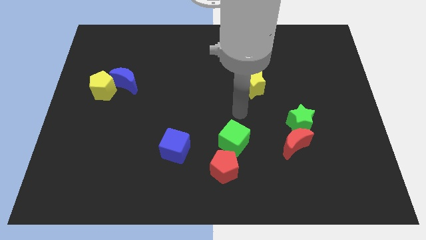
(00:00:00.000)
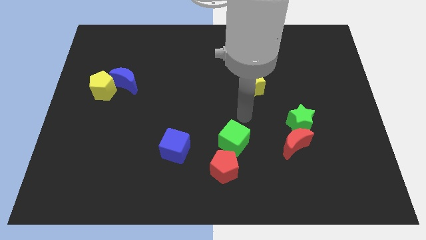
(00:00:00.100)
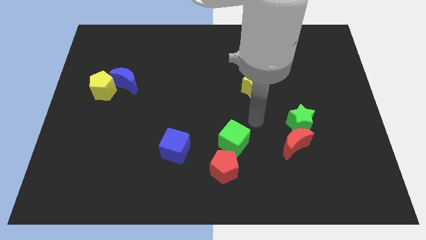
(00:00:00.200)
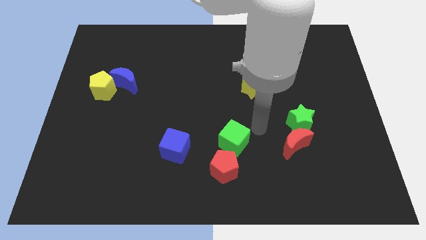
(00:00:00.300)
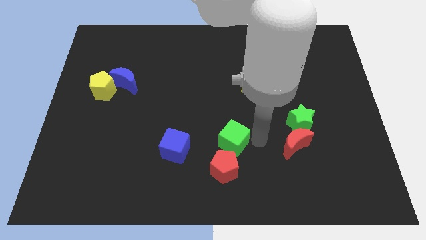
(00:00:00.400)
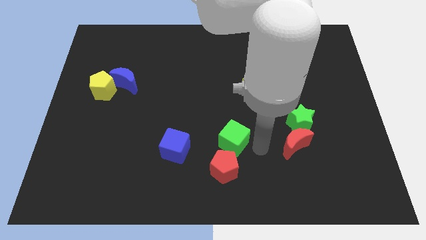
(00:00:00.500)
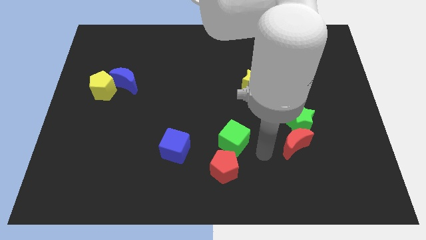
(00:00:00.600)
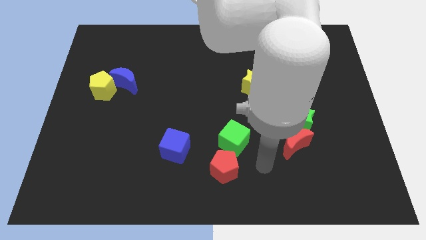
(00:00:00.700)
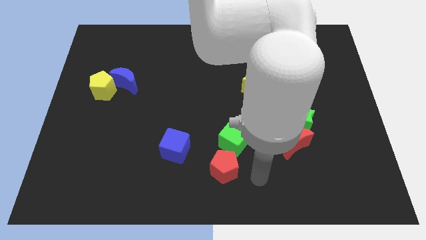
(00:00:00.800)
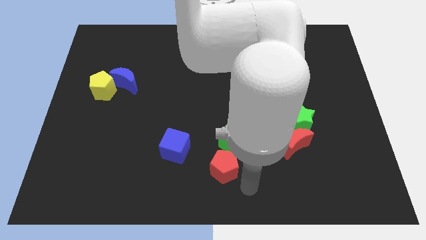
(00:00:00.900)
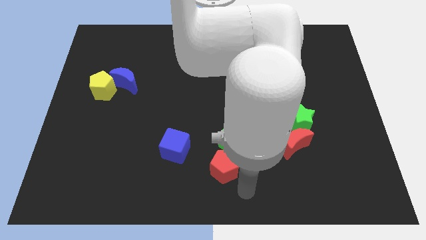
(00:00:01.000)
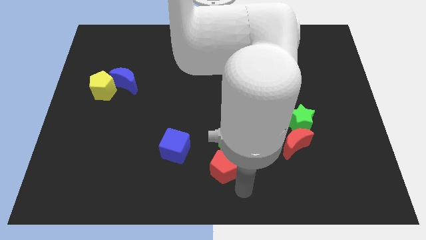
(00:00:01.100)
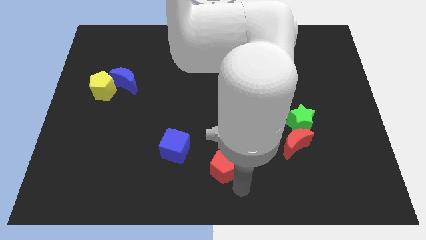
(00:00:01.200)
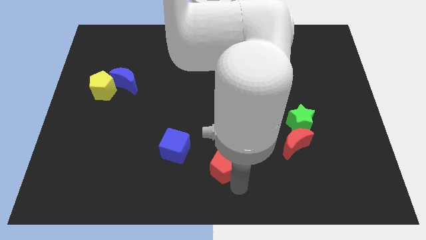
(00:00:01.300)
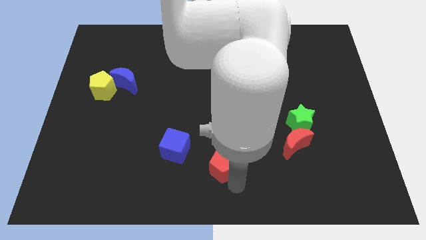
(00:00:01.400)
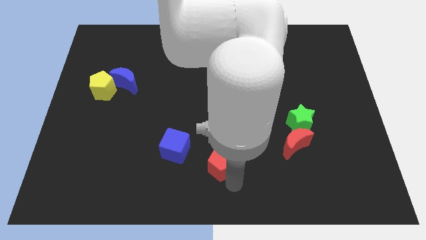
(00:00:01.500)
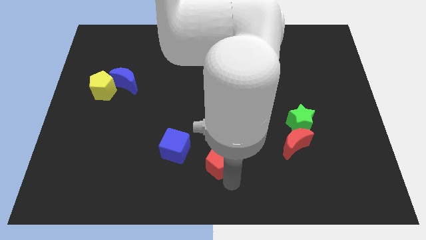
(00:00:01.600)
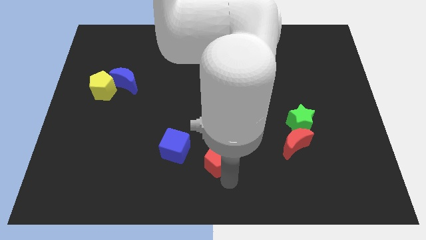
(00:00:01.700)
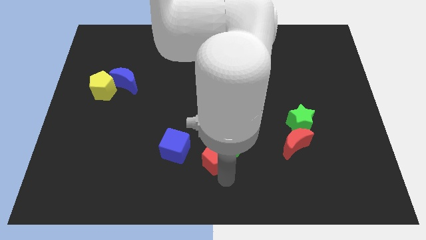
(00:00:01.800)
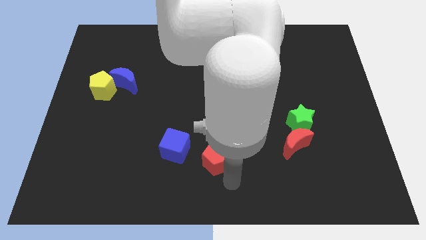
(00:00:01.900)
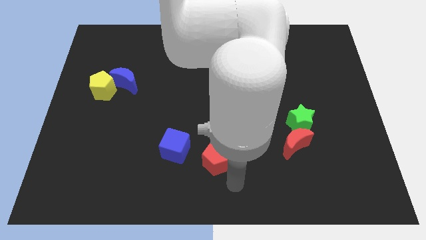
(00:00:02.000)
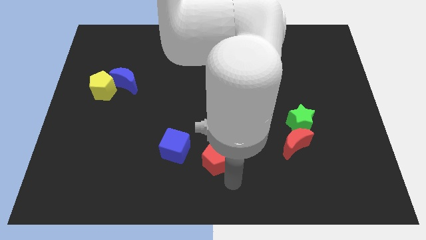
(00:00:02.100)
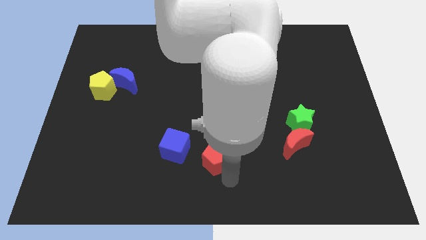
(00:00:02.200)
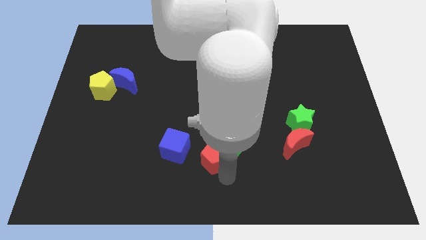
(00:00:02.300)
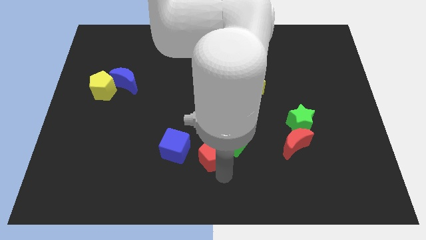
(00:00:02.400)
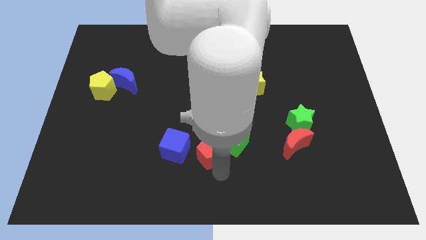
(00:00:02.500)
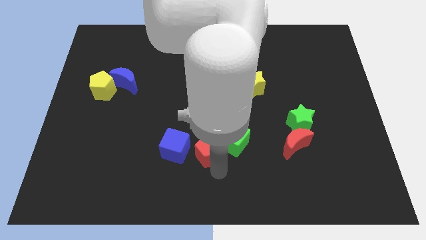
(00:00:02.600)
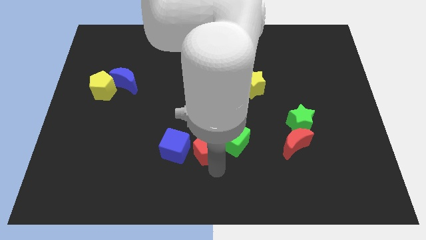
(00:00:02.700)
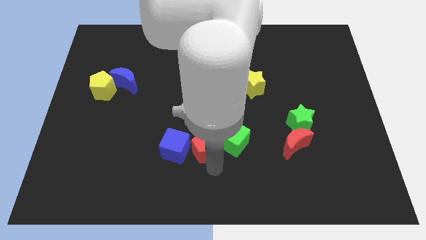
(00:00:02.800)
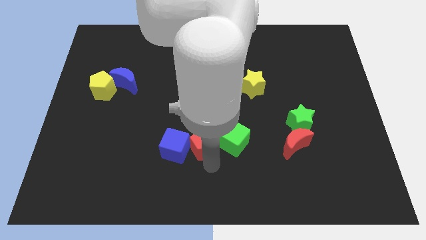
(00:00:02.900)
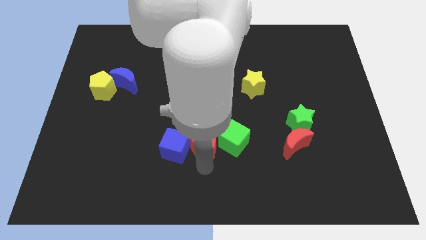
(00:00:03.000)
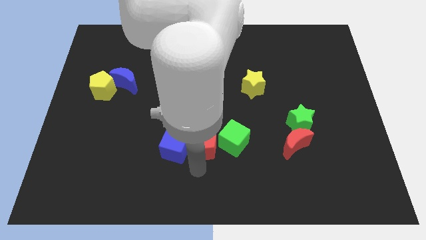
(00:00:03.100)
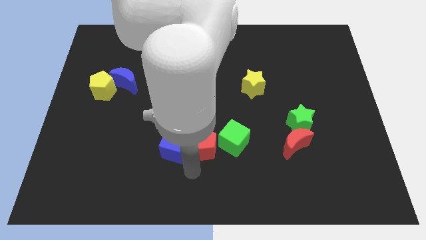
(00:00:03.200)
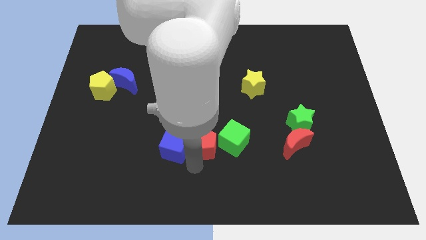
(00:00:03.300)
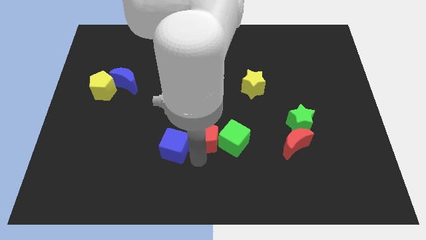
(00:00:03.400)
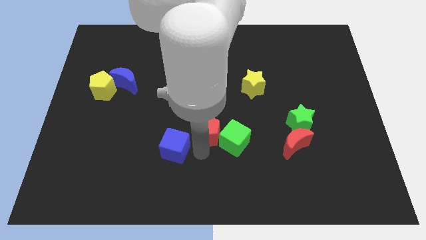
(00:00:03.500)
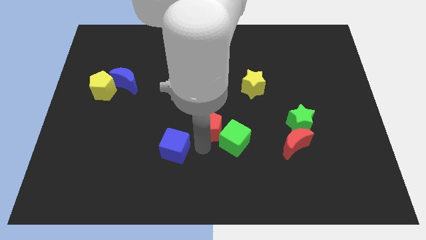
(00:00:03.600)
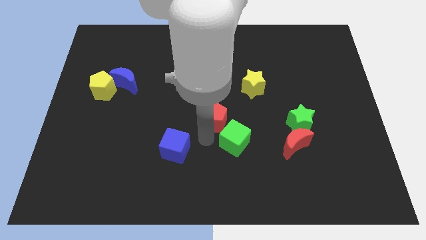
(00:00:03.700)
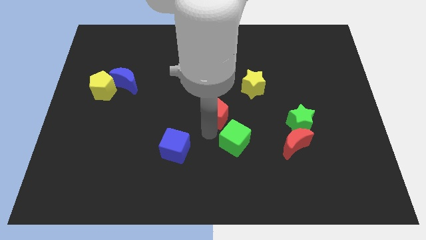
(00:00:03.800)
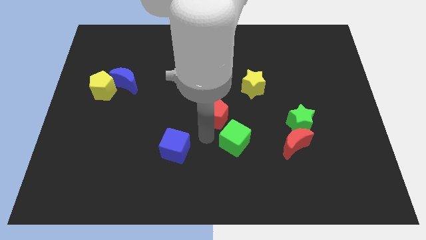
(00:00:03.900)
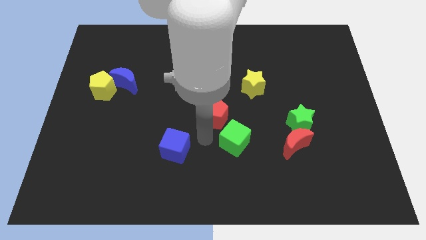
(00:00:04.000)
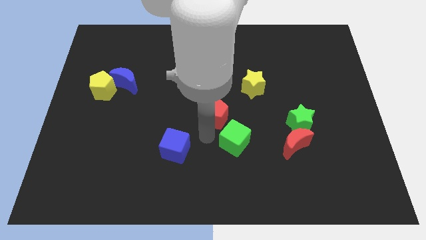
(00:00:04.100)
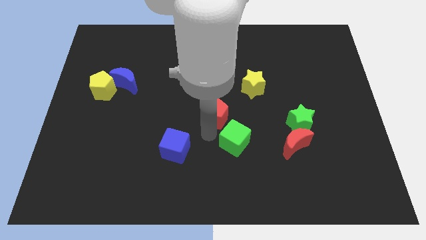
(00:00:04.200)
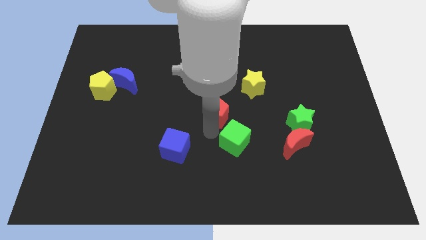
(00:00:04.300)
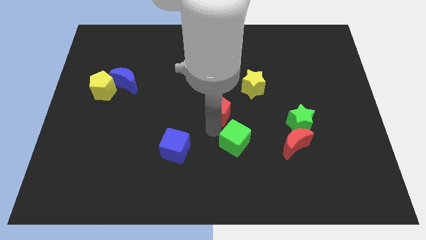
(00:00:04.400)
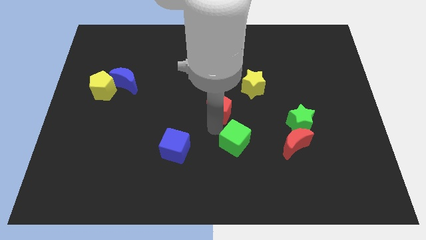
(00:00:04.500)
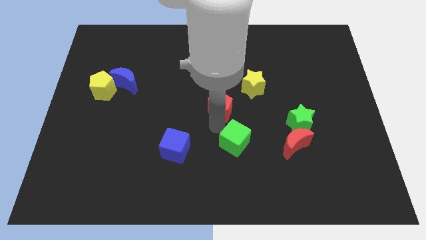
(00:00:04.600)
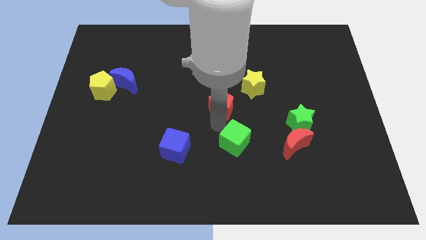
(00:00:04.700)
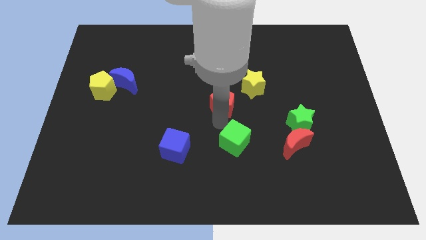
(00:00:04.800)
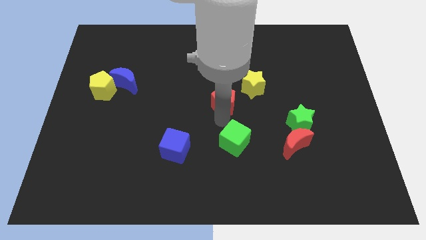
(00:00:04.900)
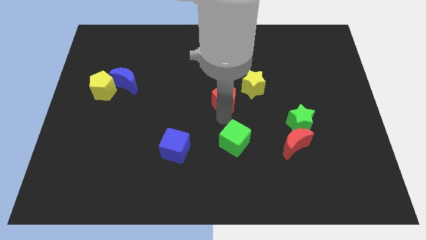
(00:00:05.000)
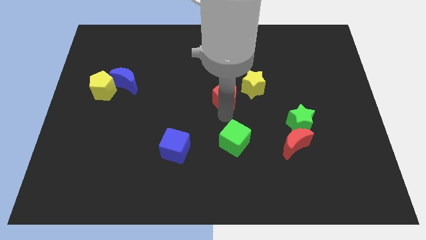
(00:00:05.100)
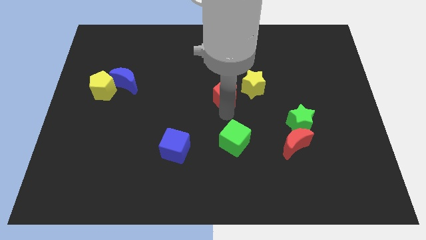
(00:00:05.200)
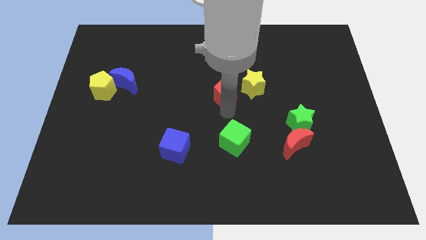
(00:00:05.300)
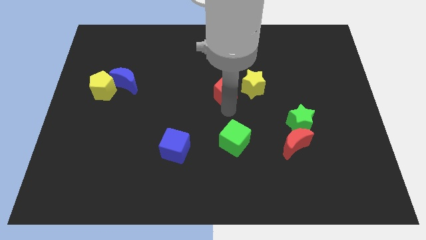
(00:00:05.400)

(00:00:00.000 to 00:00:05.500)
move the red pentagon upwards

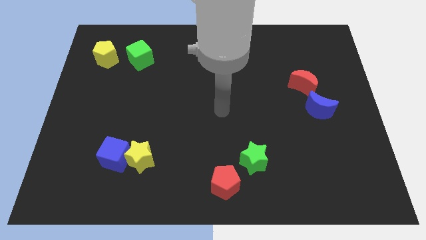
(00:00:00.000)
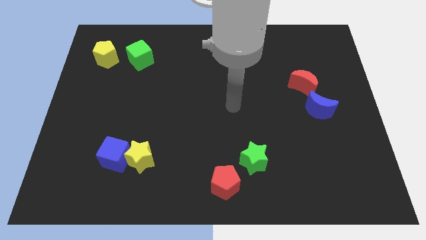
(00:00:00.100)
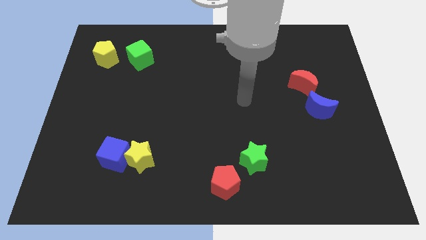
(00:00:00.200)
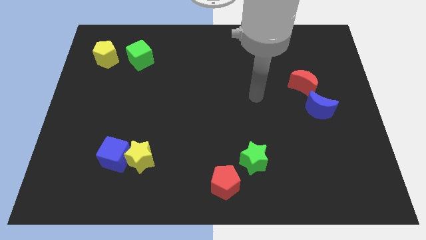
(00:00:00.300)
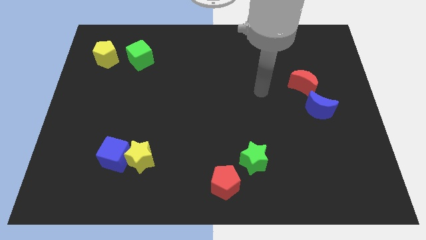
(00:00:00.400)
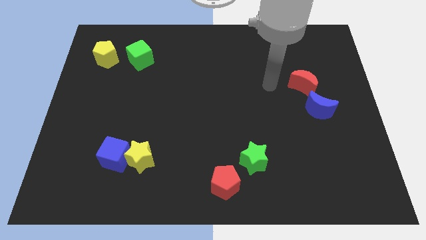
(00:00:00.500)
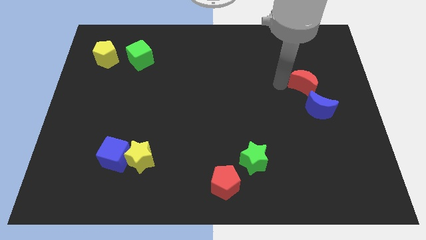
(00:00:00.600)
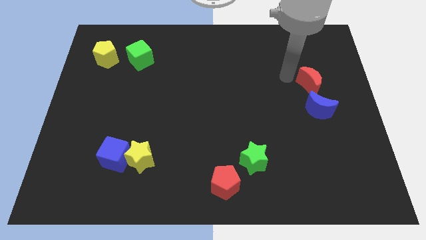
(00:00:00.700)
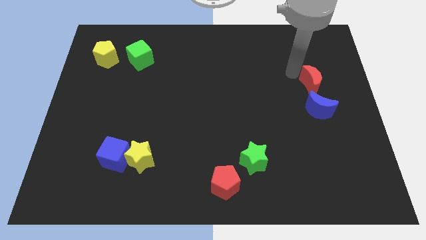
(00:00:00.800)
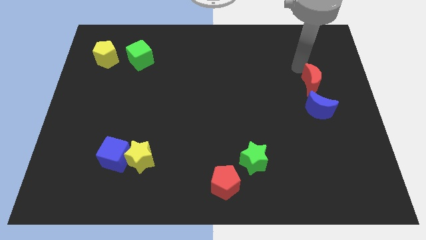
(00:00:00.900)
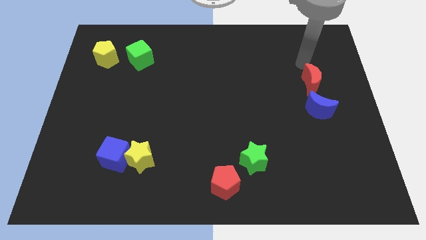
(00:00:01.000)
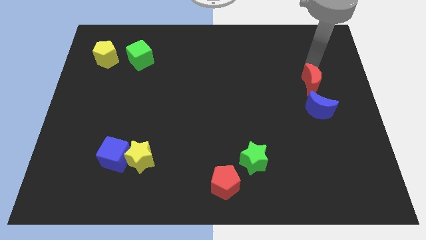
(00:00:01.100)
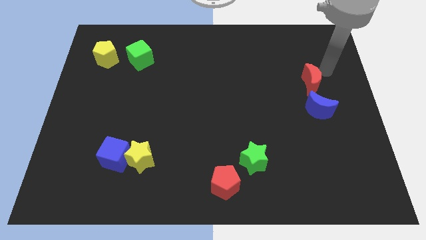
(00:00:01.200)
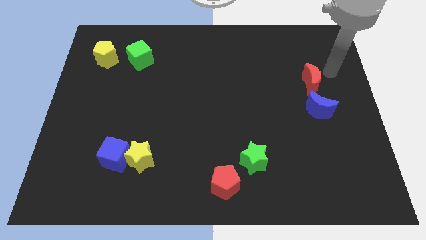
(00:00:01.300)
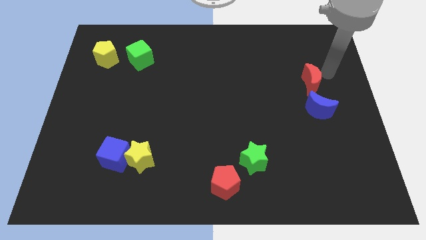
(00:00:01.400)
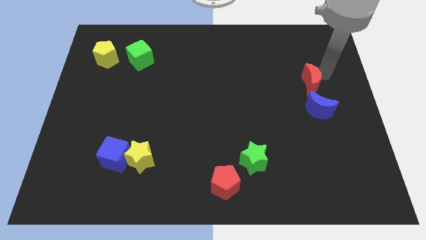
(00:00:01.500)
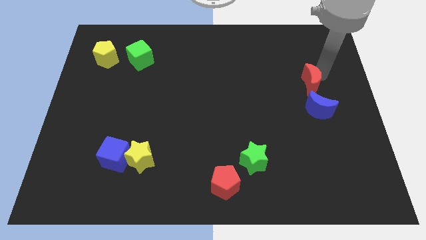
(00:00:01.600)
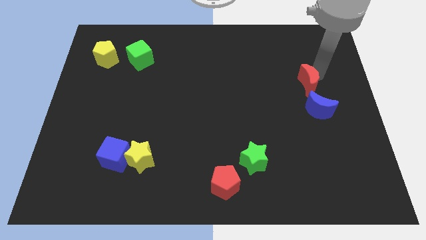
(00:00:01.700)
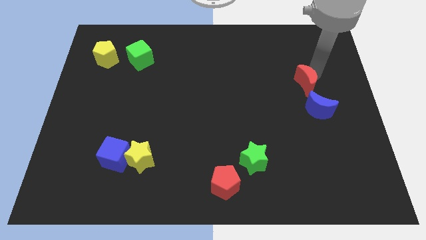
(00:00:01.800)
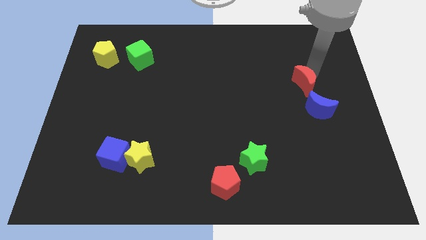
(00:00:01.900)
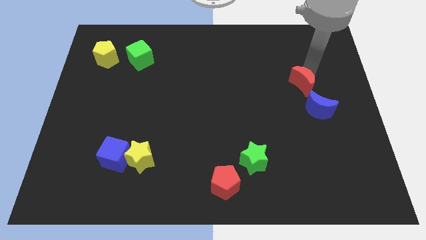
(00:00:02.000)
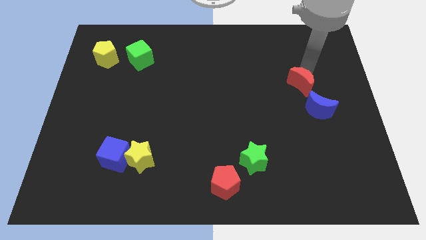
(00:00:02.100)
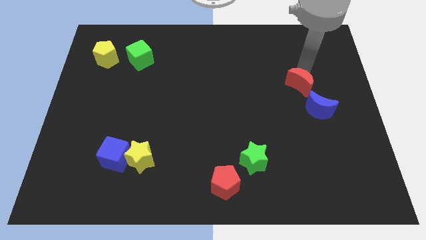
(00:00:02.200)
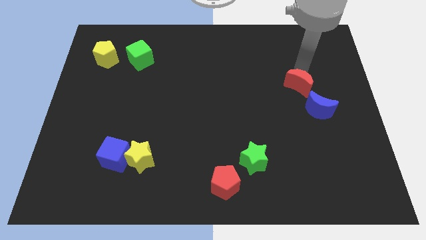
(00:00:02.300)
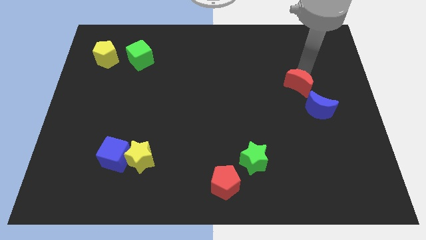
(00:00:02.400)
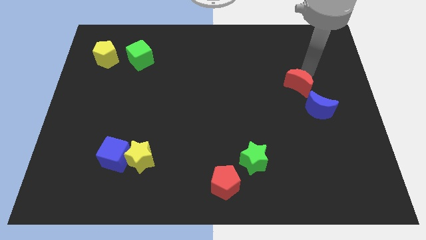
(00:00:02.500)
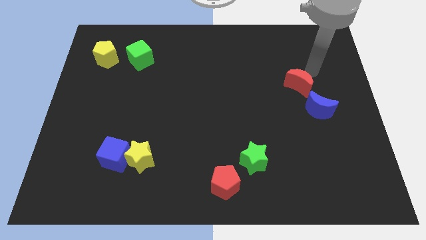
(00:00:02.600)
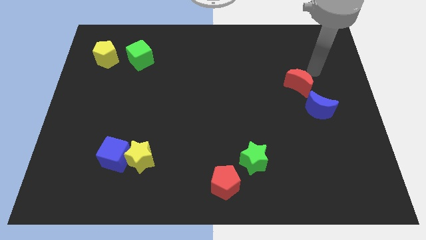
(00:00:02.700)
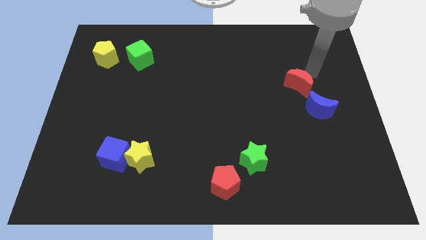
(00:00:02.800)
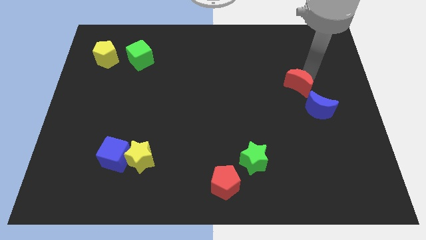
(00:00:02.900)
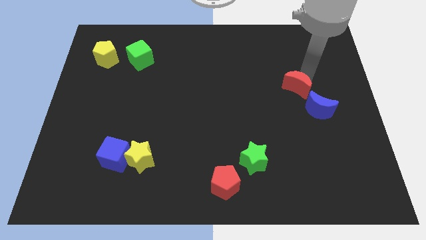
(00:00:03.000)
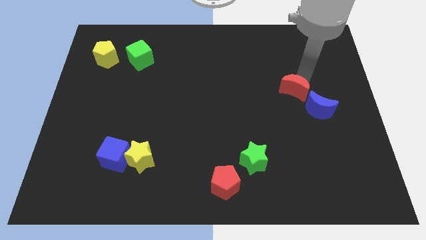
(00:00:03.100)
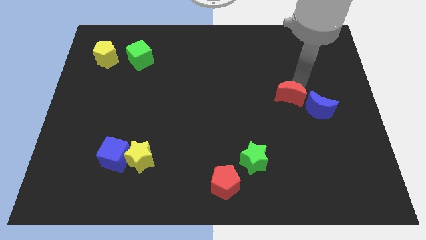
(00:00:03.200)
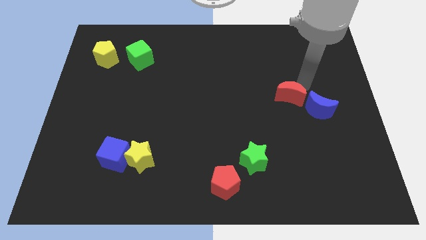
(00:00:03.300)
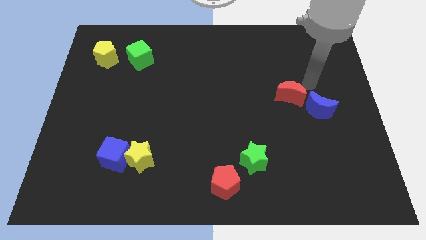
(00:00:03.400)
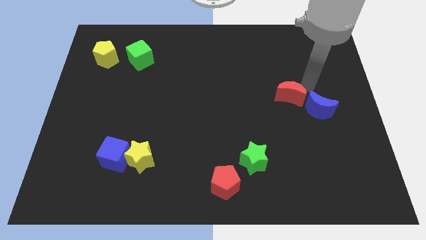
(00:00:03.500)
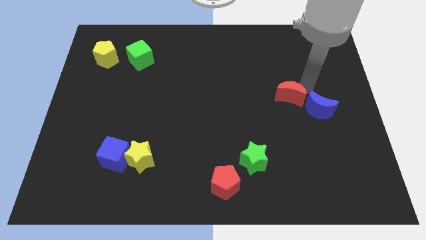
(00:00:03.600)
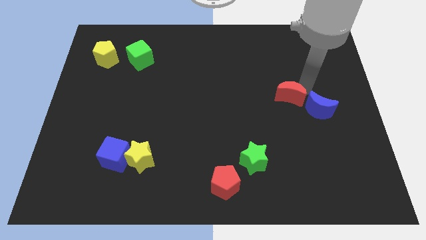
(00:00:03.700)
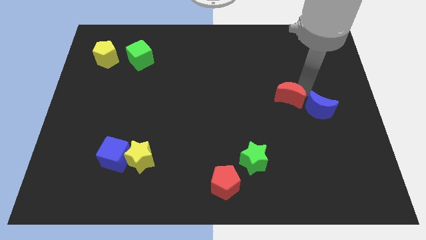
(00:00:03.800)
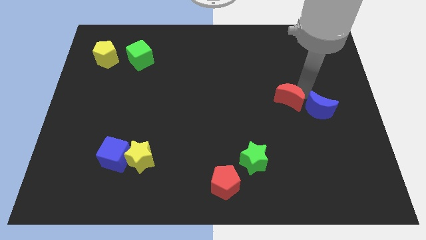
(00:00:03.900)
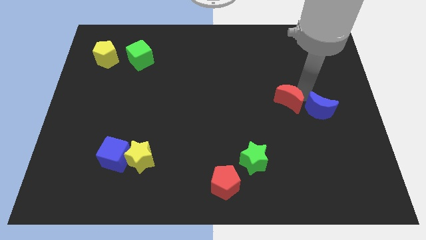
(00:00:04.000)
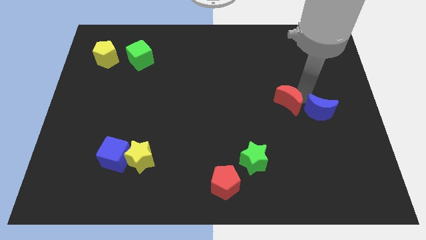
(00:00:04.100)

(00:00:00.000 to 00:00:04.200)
slide the red moon downwards and left diagonally a little bit
